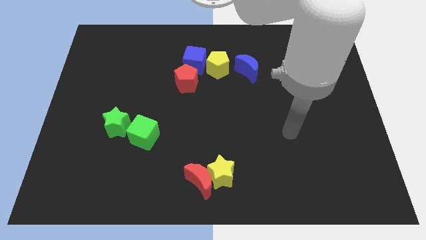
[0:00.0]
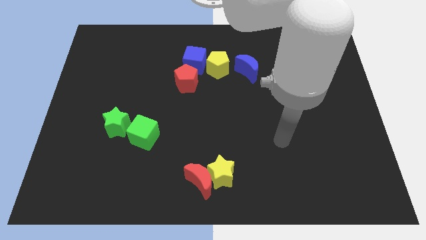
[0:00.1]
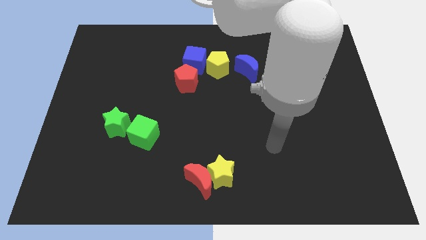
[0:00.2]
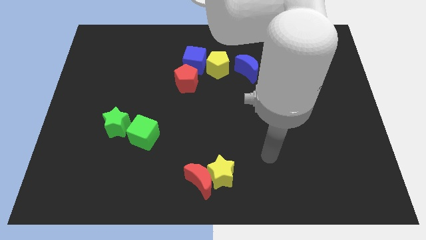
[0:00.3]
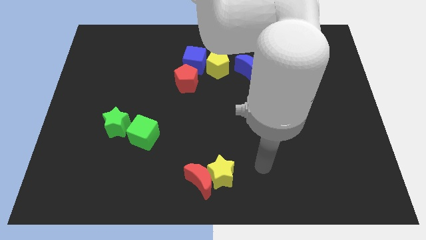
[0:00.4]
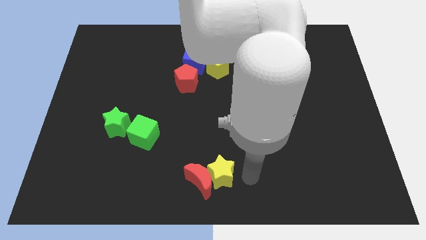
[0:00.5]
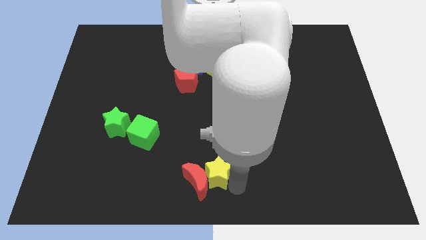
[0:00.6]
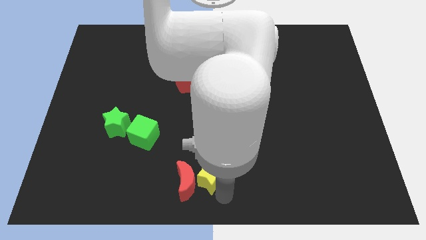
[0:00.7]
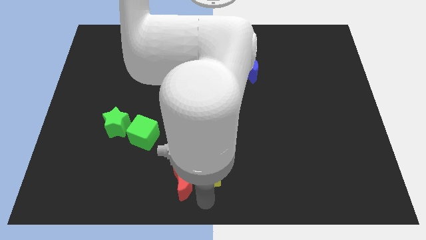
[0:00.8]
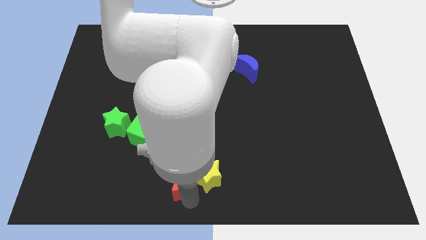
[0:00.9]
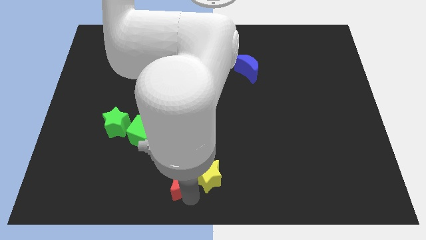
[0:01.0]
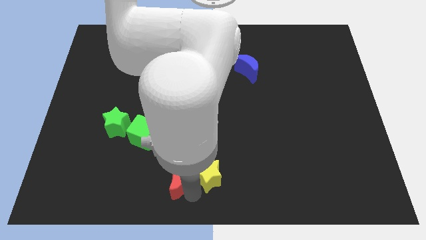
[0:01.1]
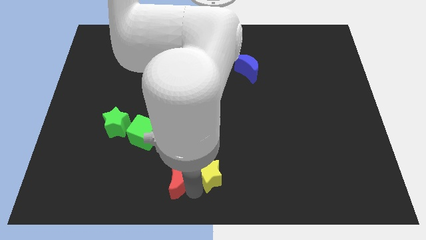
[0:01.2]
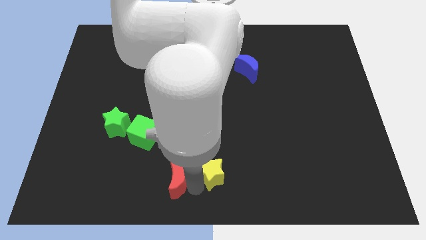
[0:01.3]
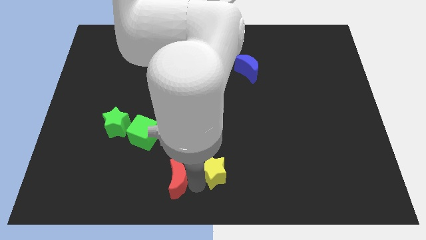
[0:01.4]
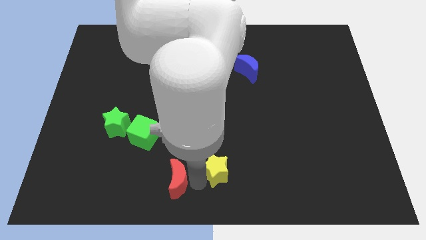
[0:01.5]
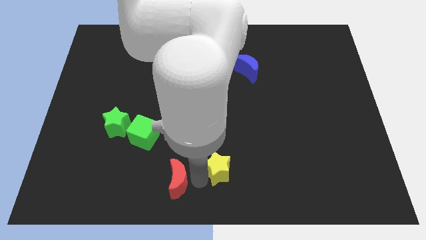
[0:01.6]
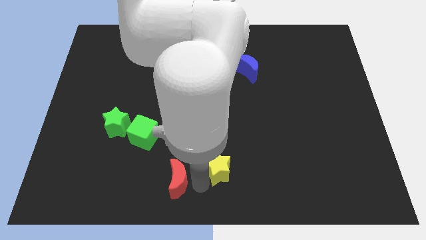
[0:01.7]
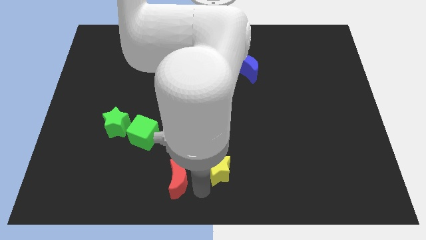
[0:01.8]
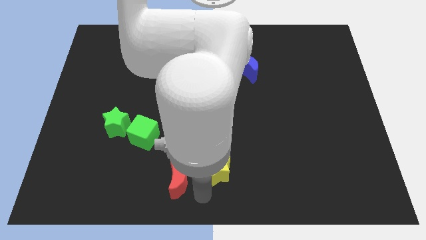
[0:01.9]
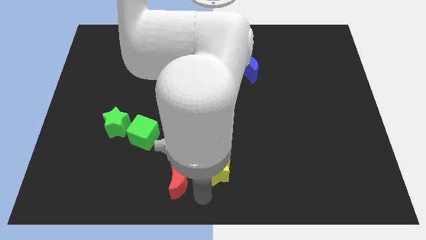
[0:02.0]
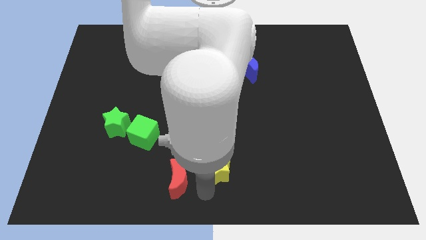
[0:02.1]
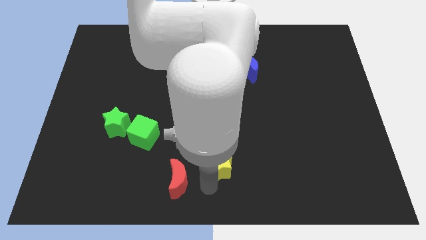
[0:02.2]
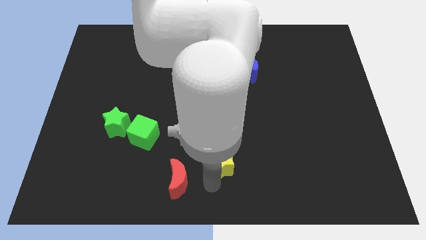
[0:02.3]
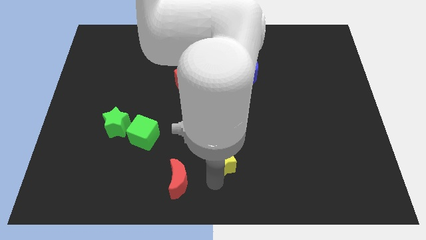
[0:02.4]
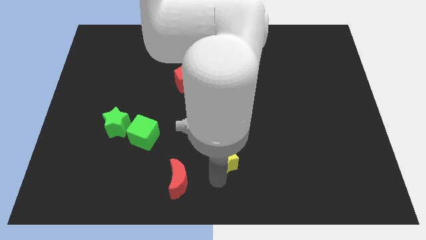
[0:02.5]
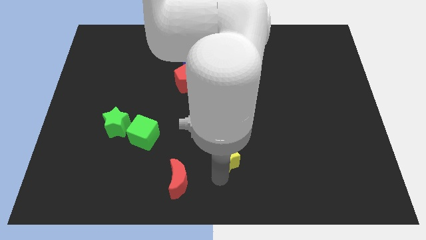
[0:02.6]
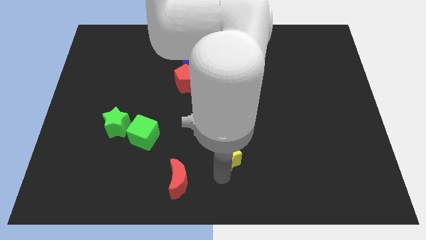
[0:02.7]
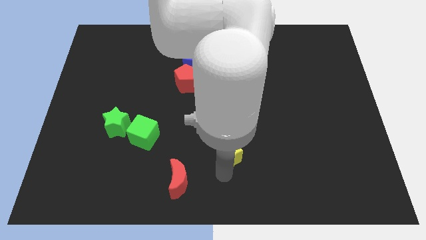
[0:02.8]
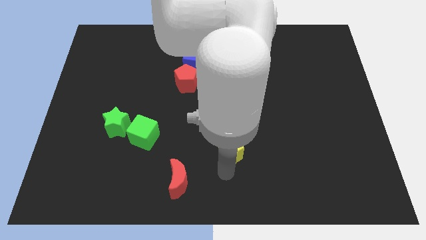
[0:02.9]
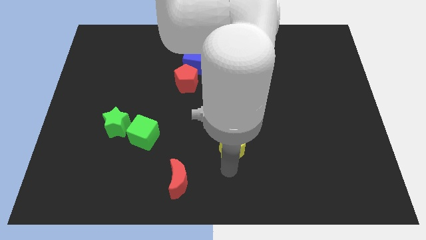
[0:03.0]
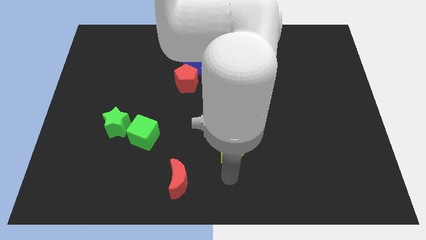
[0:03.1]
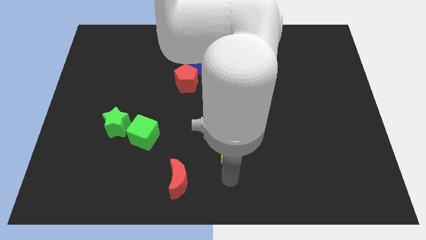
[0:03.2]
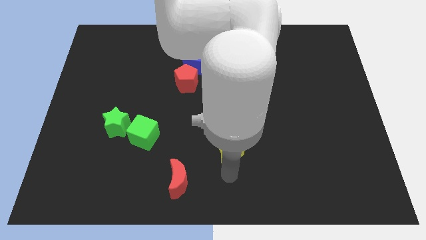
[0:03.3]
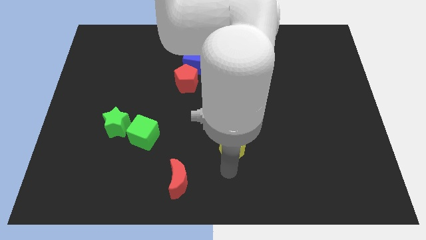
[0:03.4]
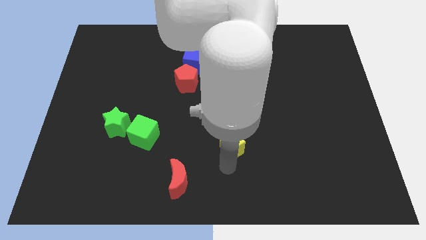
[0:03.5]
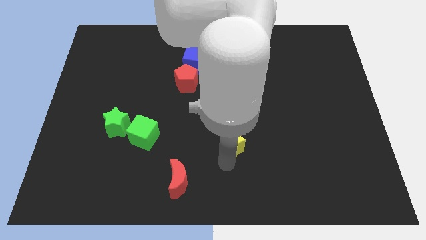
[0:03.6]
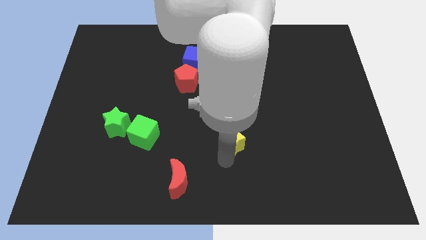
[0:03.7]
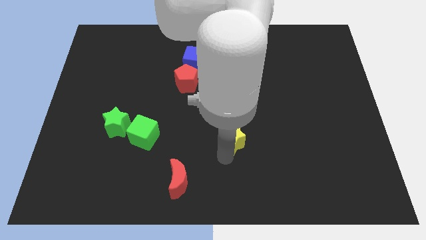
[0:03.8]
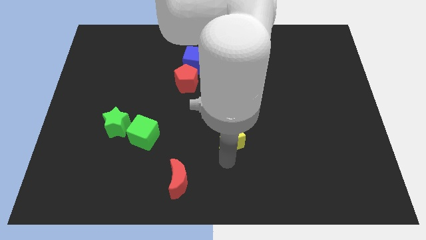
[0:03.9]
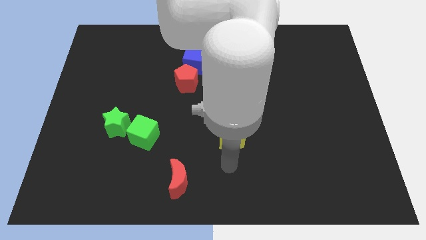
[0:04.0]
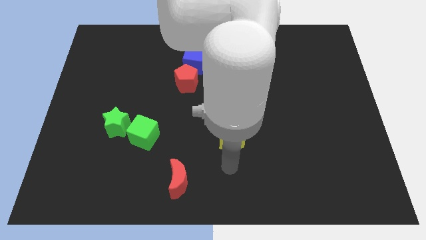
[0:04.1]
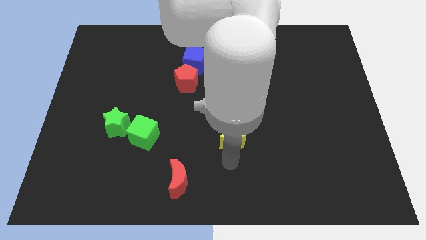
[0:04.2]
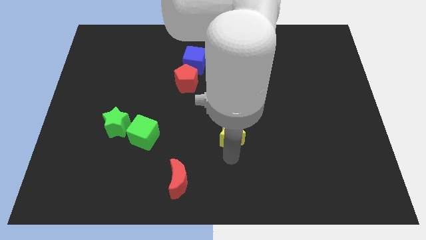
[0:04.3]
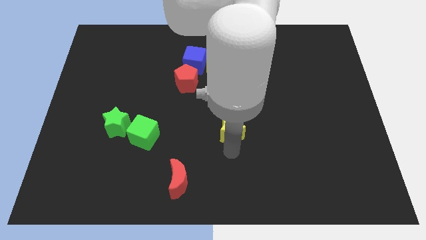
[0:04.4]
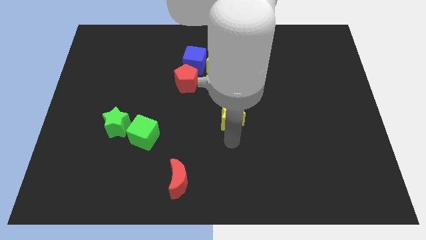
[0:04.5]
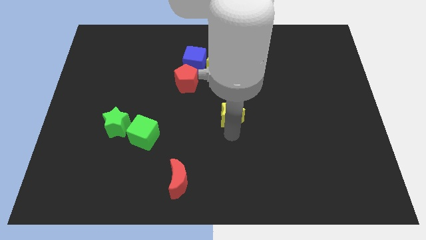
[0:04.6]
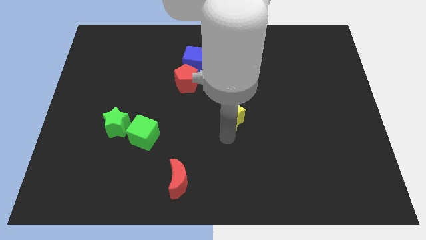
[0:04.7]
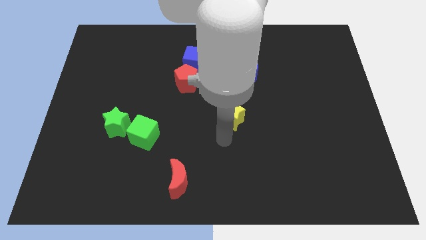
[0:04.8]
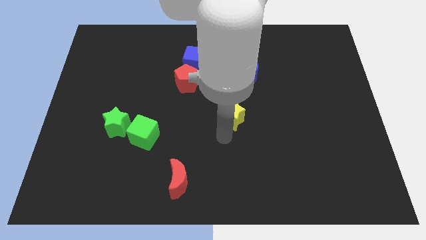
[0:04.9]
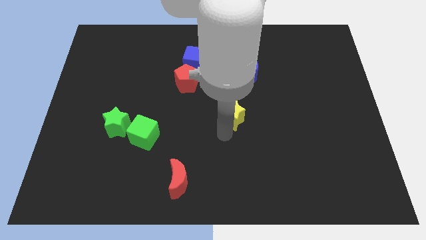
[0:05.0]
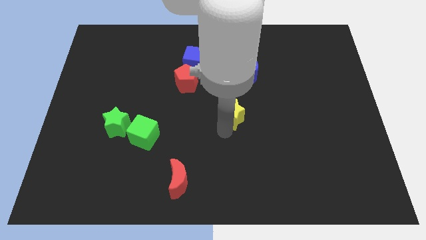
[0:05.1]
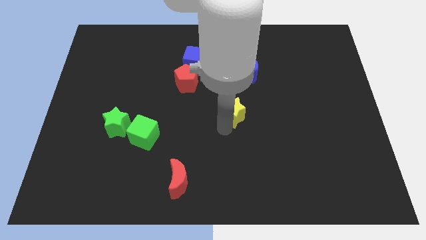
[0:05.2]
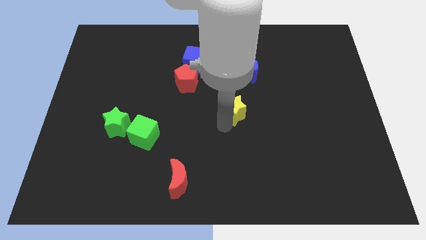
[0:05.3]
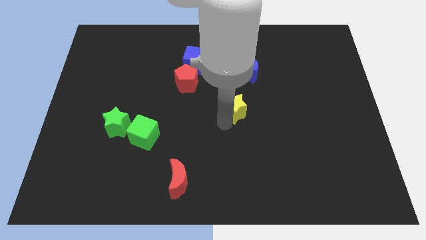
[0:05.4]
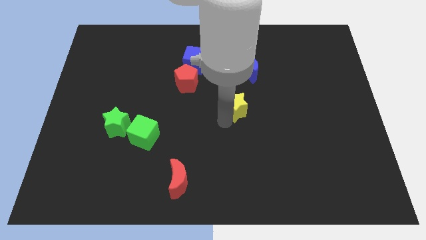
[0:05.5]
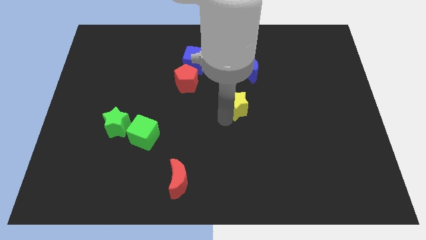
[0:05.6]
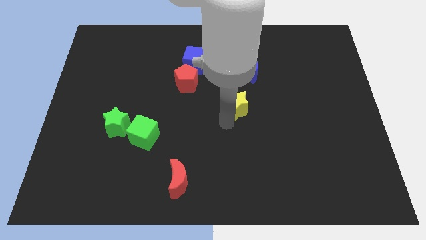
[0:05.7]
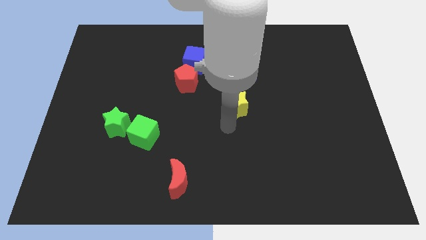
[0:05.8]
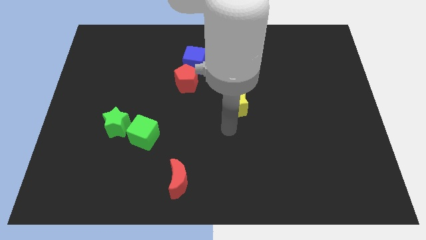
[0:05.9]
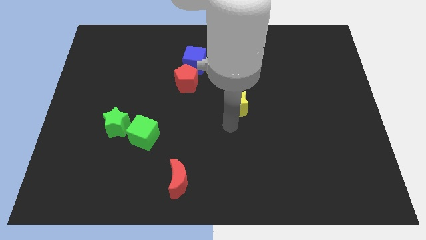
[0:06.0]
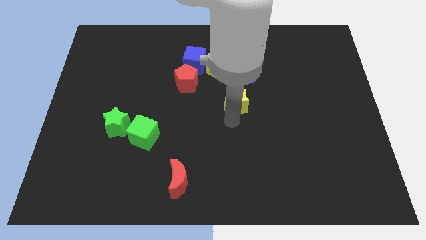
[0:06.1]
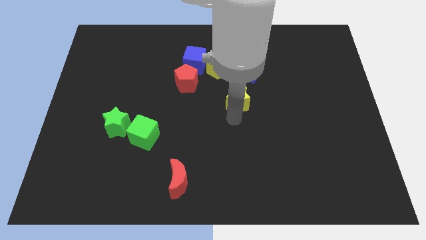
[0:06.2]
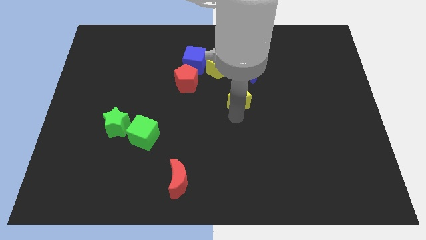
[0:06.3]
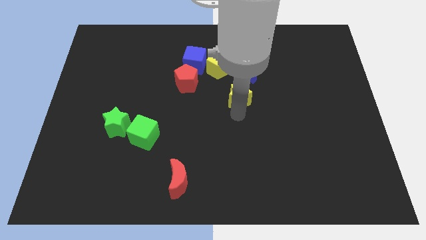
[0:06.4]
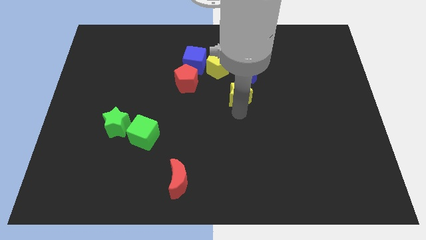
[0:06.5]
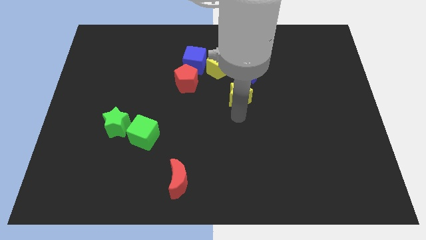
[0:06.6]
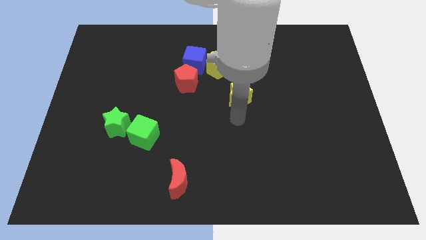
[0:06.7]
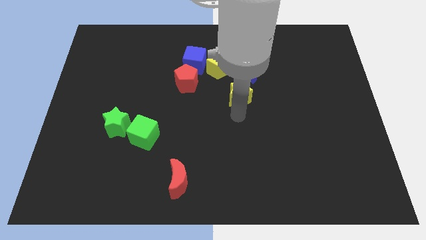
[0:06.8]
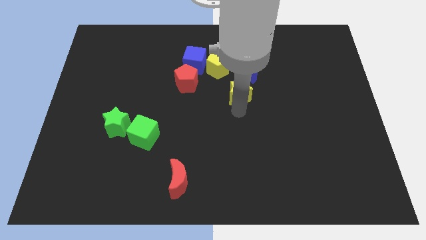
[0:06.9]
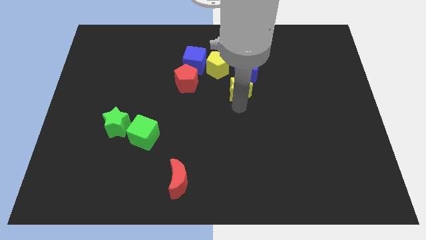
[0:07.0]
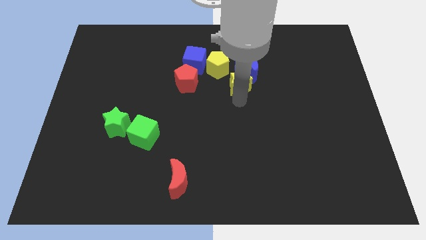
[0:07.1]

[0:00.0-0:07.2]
slide the yellow star to the blue moon
